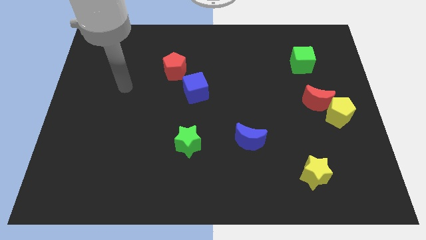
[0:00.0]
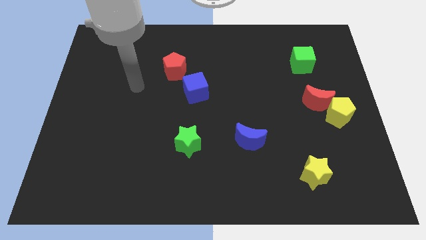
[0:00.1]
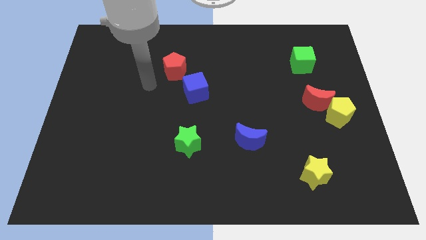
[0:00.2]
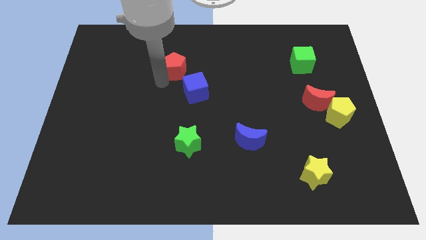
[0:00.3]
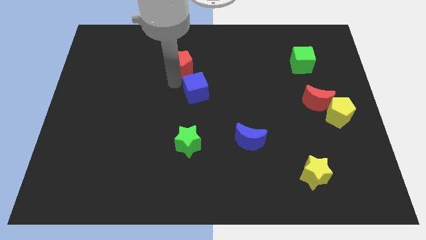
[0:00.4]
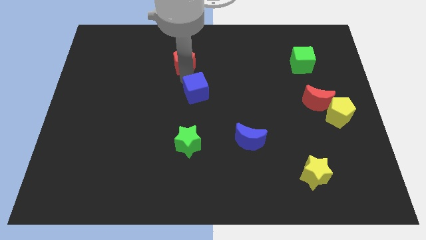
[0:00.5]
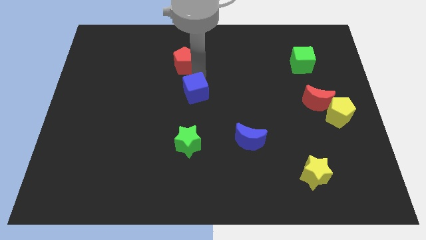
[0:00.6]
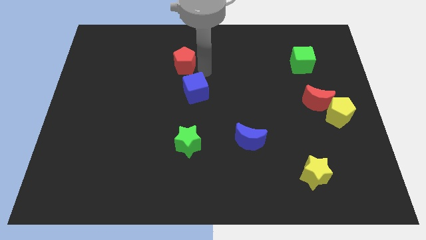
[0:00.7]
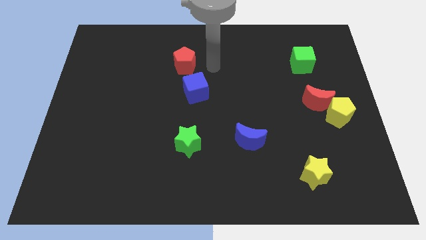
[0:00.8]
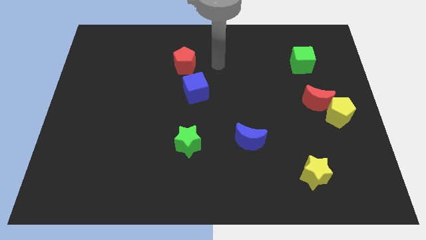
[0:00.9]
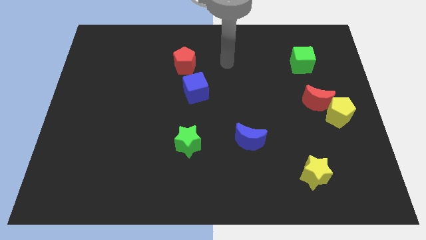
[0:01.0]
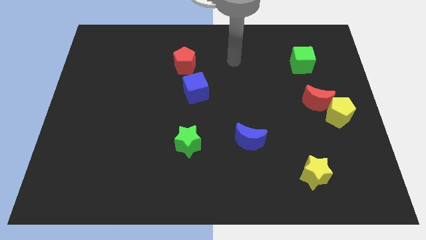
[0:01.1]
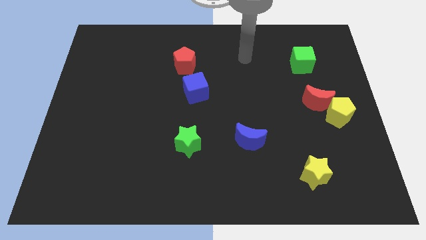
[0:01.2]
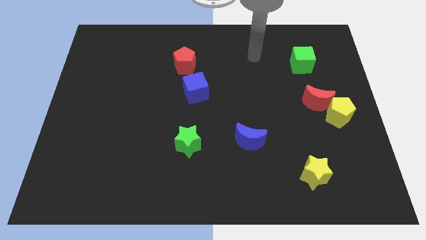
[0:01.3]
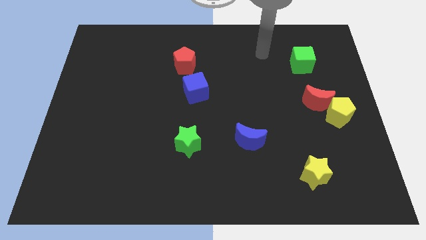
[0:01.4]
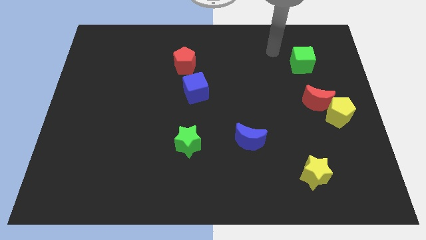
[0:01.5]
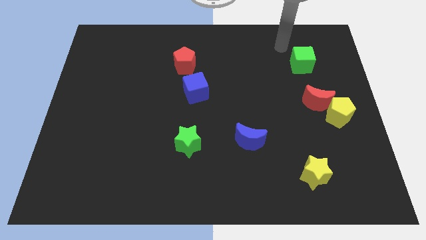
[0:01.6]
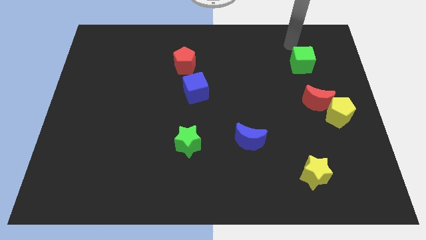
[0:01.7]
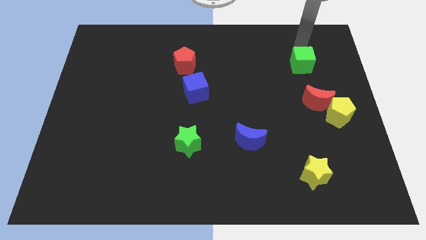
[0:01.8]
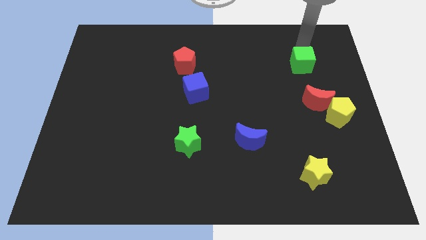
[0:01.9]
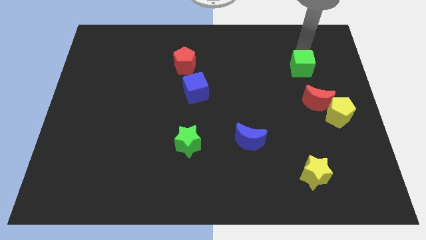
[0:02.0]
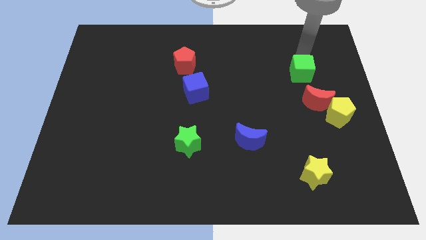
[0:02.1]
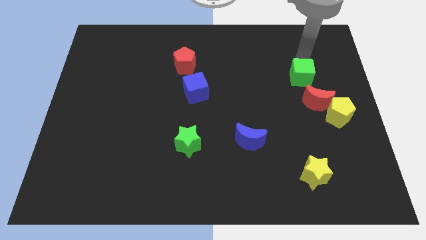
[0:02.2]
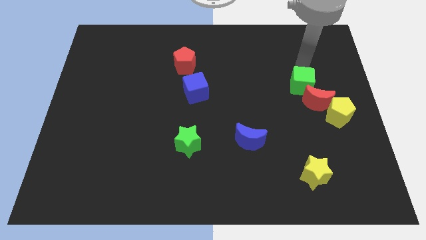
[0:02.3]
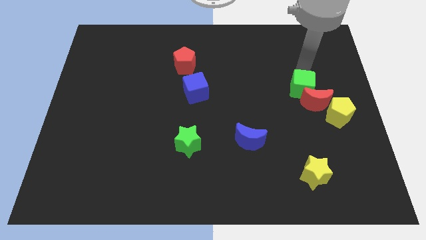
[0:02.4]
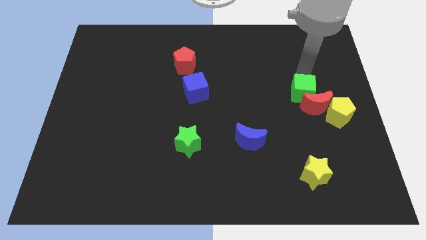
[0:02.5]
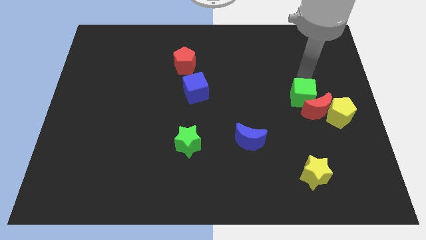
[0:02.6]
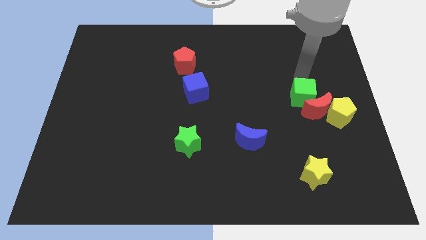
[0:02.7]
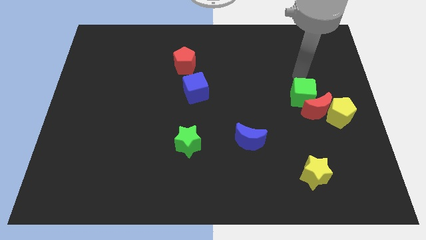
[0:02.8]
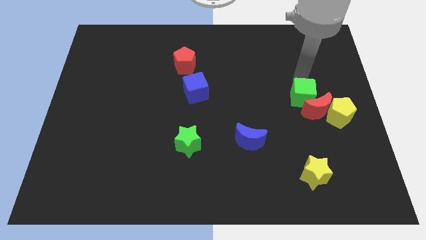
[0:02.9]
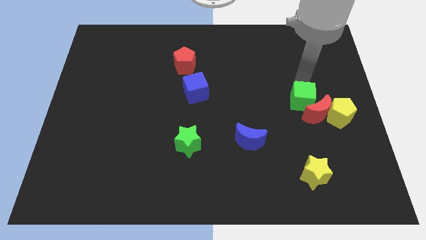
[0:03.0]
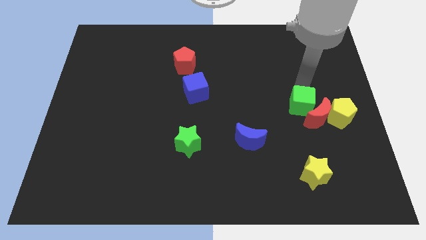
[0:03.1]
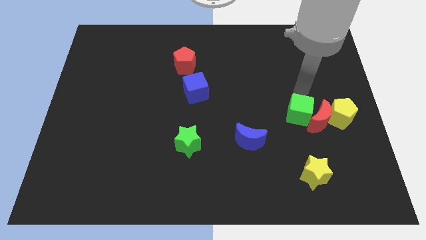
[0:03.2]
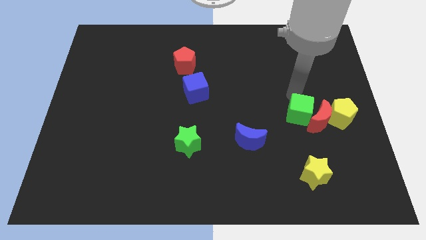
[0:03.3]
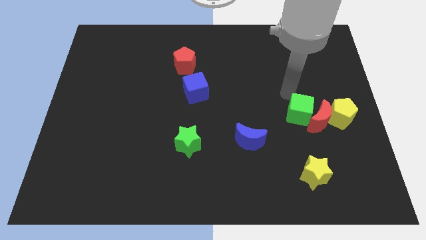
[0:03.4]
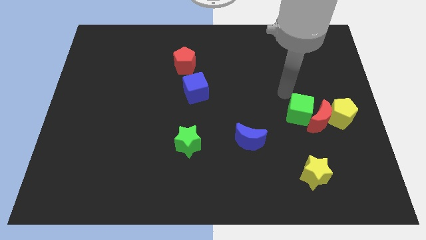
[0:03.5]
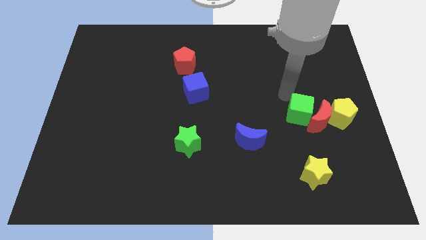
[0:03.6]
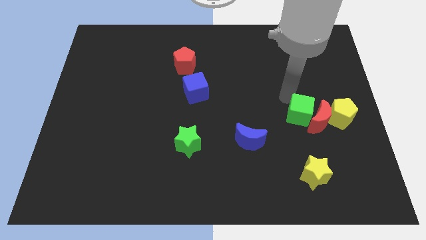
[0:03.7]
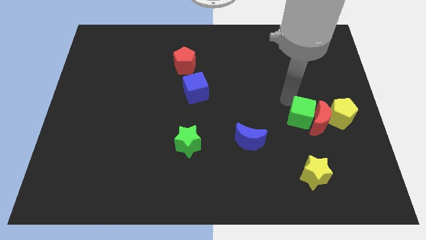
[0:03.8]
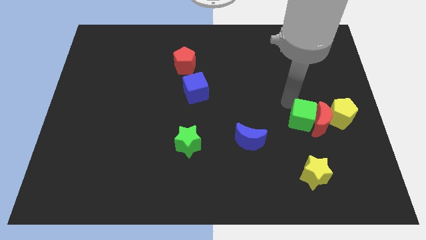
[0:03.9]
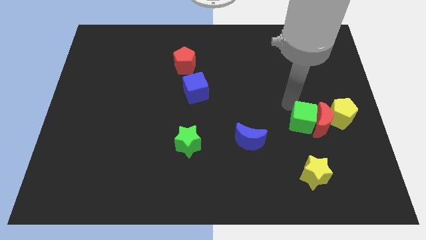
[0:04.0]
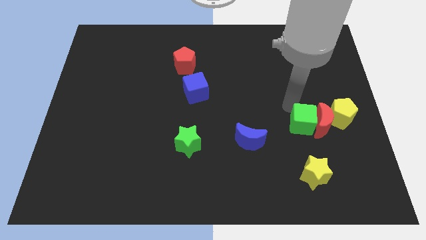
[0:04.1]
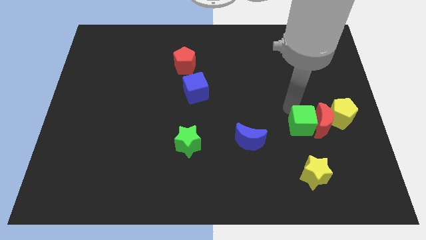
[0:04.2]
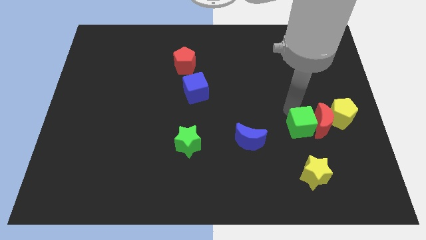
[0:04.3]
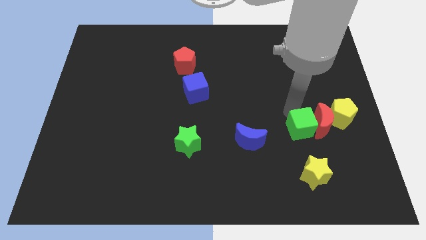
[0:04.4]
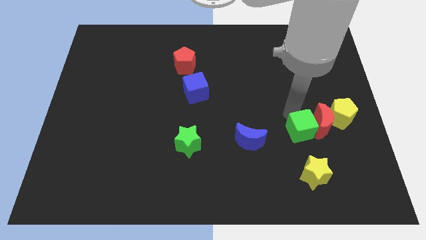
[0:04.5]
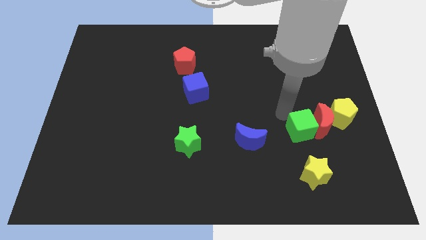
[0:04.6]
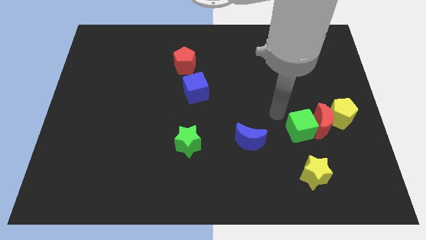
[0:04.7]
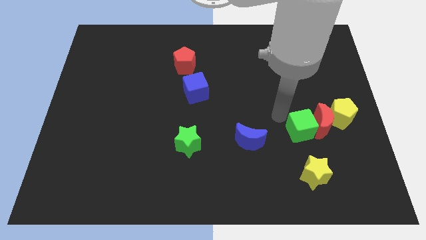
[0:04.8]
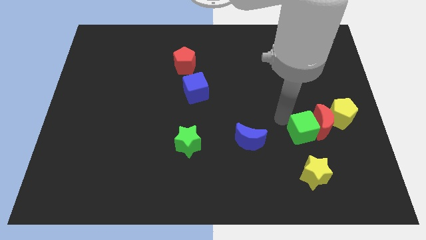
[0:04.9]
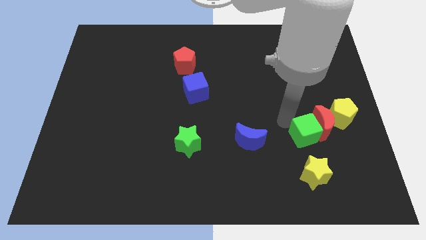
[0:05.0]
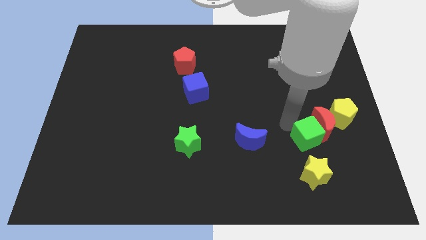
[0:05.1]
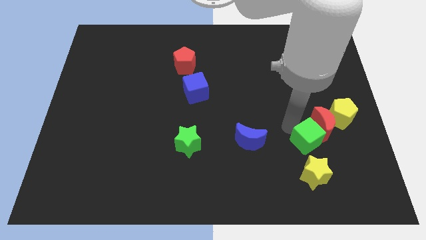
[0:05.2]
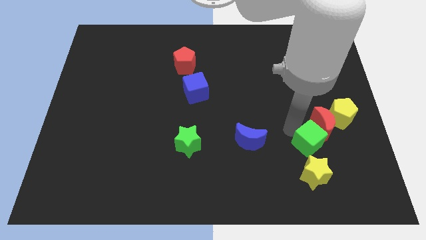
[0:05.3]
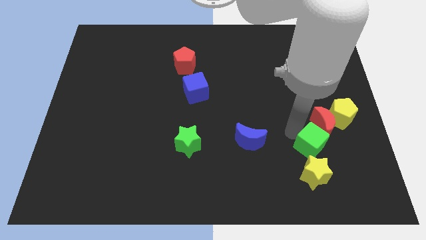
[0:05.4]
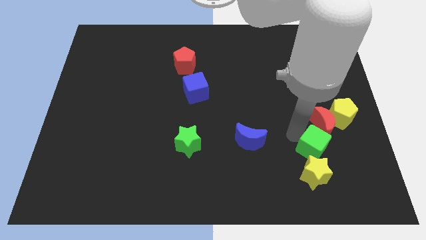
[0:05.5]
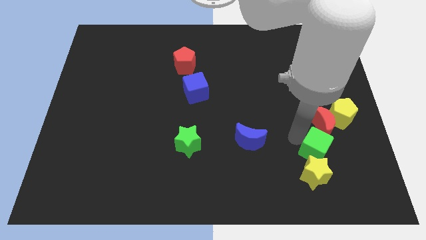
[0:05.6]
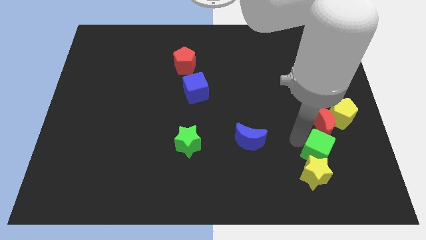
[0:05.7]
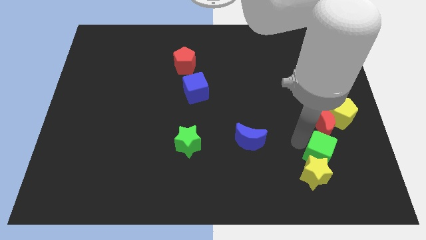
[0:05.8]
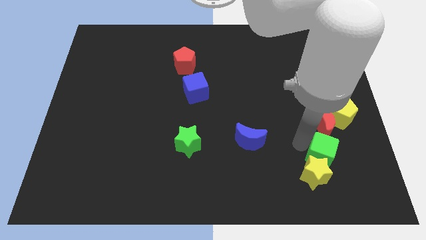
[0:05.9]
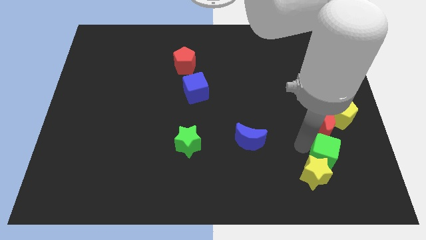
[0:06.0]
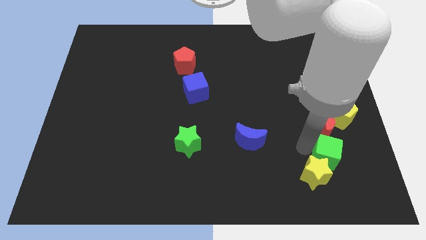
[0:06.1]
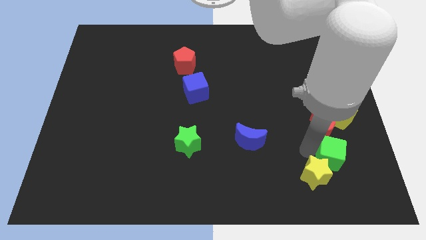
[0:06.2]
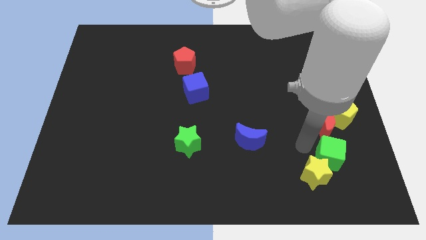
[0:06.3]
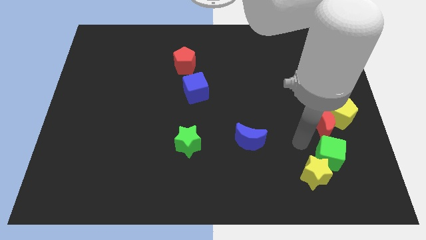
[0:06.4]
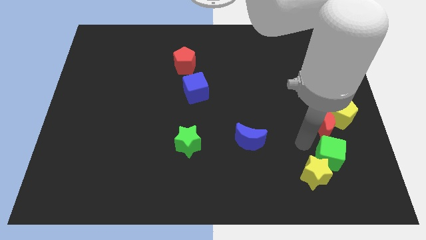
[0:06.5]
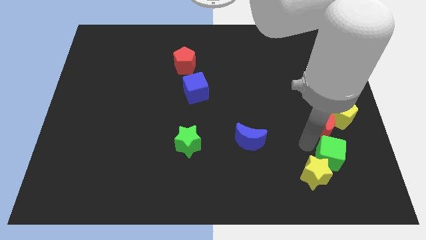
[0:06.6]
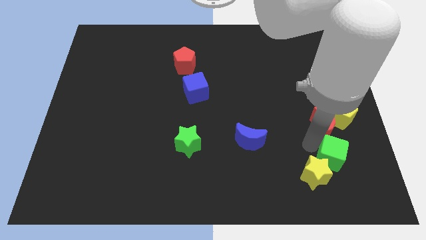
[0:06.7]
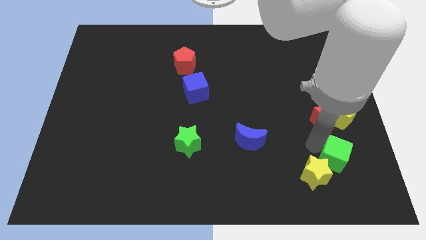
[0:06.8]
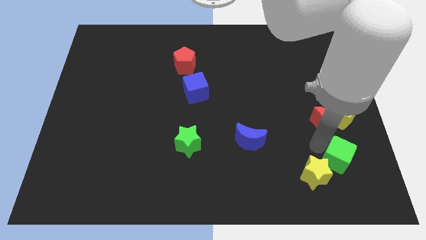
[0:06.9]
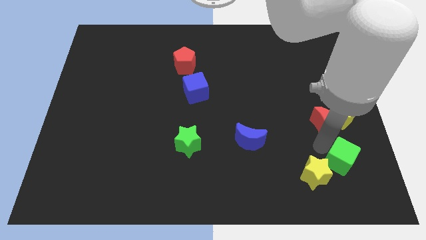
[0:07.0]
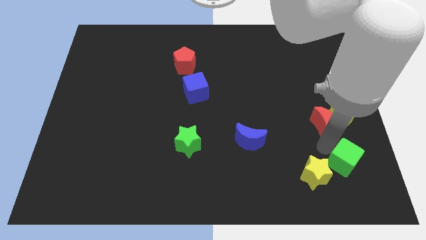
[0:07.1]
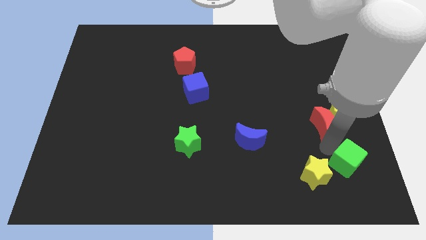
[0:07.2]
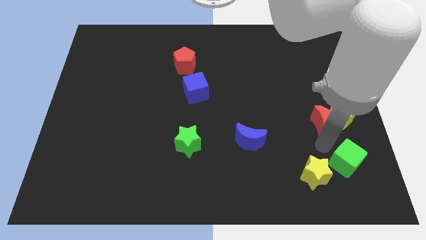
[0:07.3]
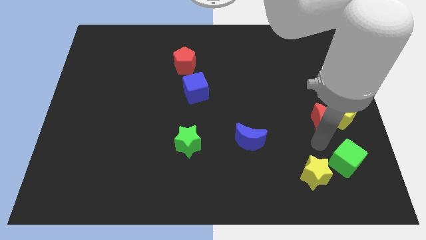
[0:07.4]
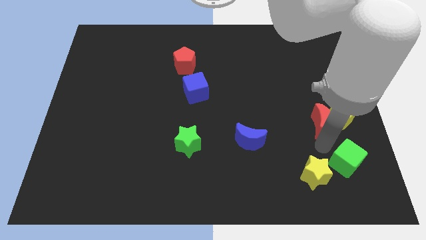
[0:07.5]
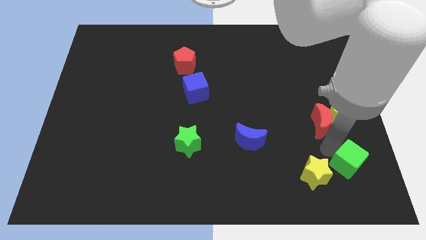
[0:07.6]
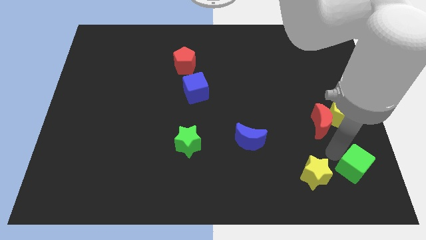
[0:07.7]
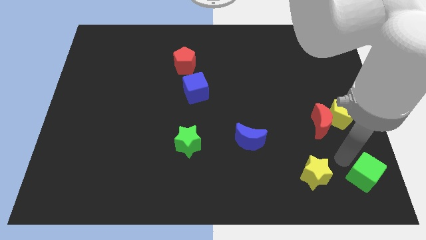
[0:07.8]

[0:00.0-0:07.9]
put the green cube to the bottom right of the board
